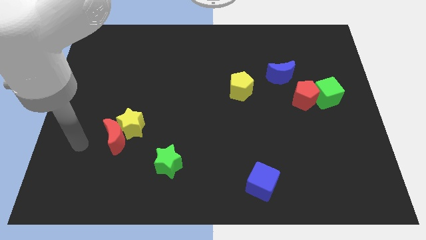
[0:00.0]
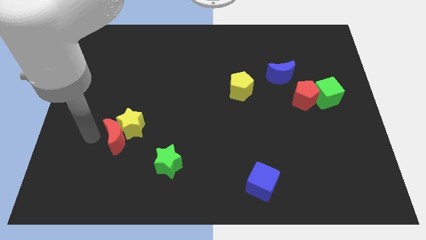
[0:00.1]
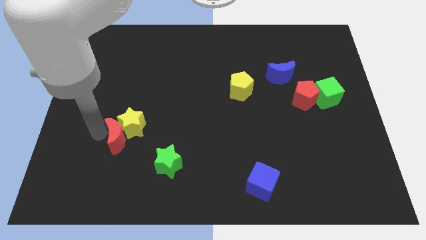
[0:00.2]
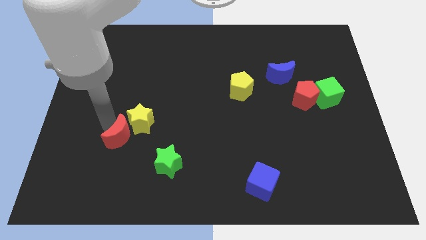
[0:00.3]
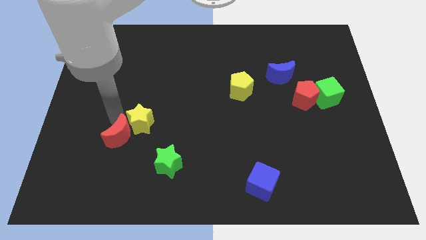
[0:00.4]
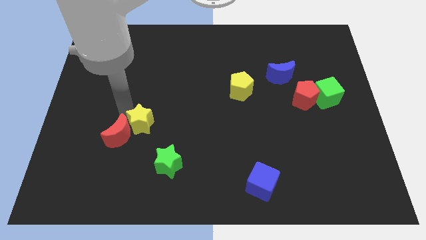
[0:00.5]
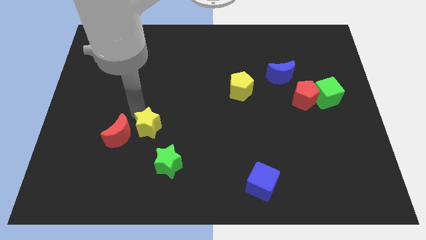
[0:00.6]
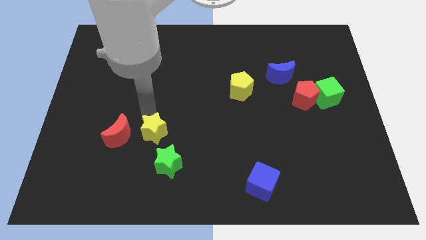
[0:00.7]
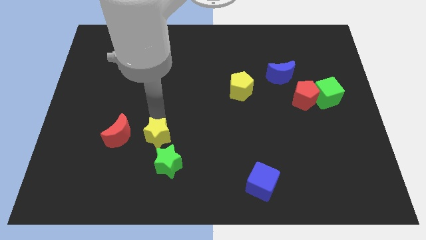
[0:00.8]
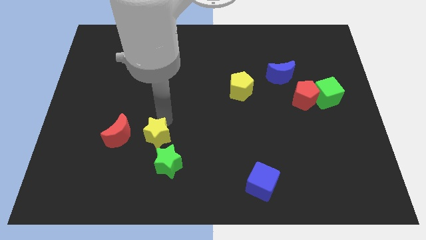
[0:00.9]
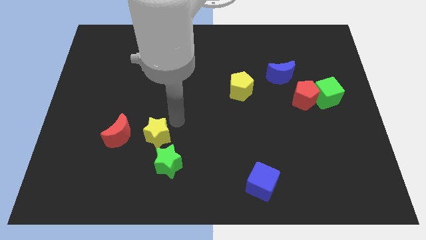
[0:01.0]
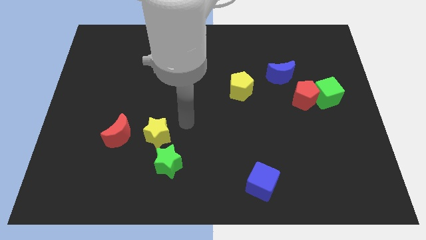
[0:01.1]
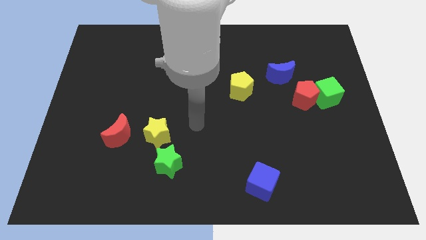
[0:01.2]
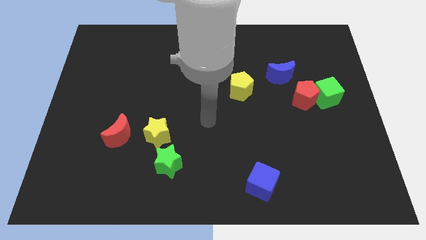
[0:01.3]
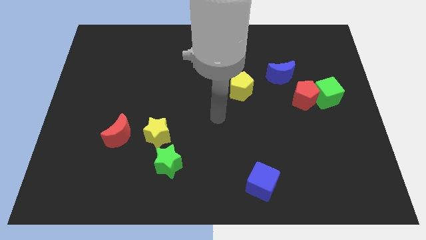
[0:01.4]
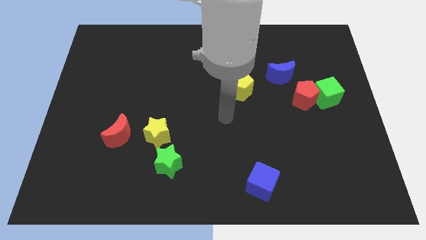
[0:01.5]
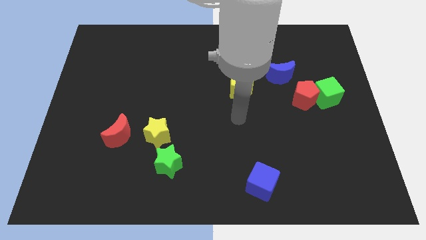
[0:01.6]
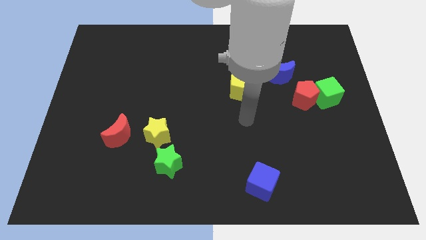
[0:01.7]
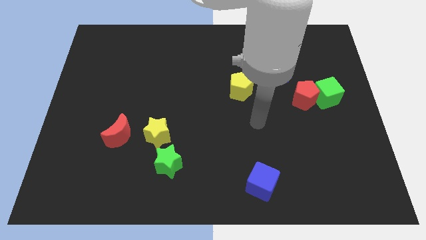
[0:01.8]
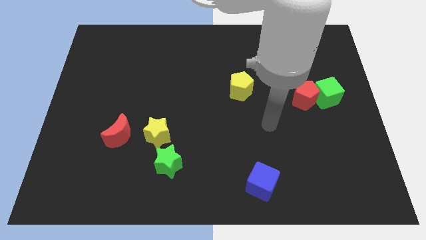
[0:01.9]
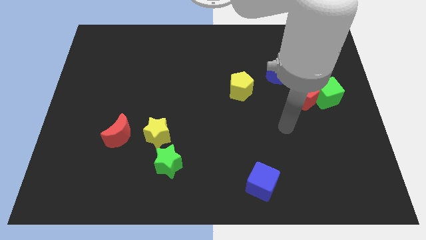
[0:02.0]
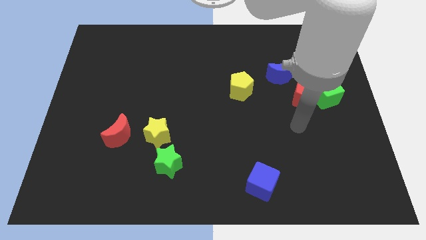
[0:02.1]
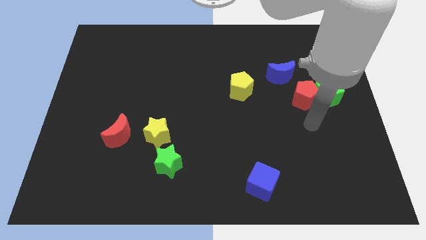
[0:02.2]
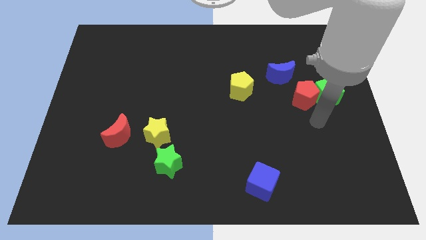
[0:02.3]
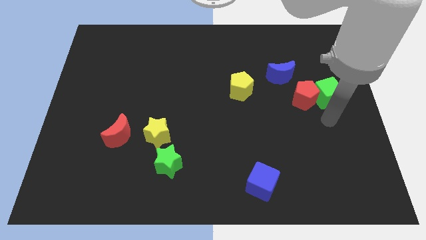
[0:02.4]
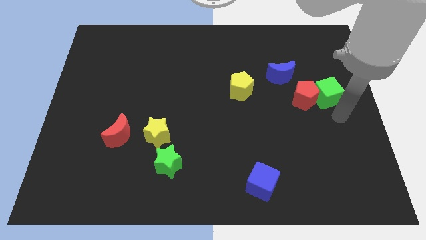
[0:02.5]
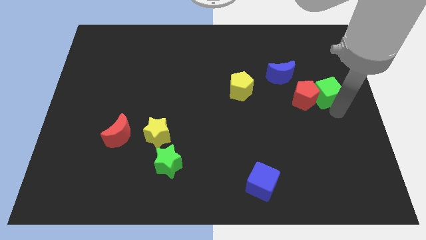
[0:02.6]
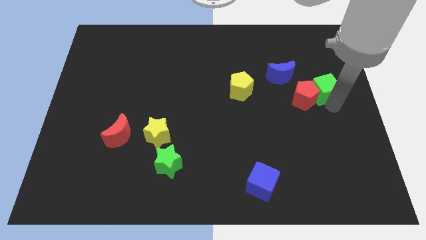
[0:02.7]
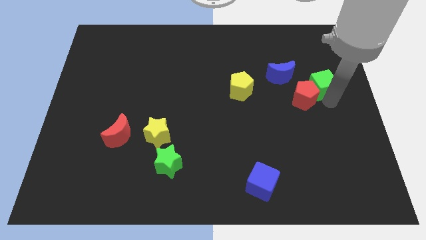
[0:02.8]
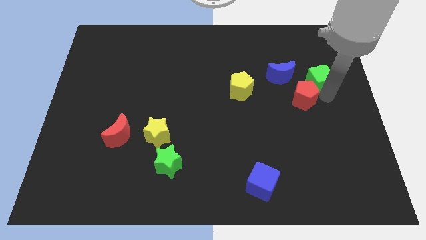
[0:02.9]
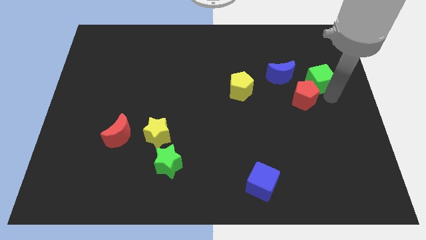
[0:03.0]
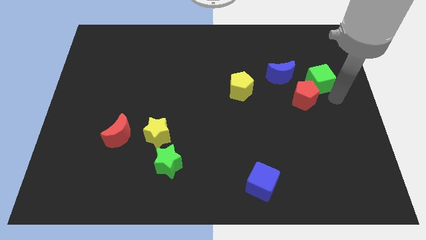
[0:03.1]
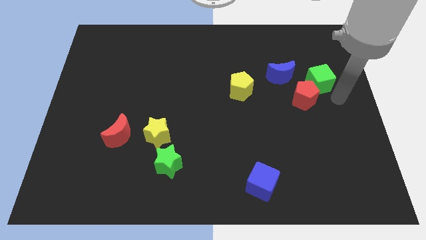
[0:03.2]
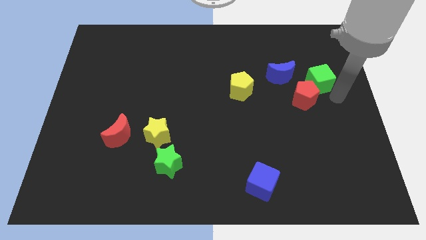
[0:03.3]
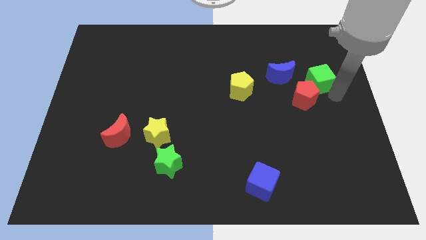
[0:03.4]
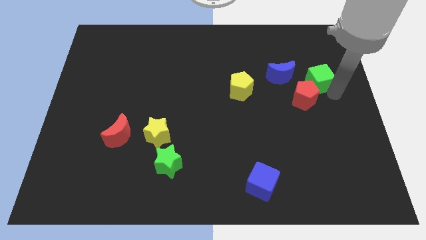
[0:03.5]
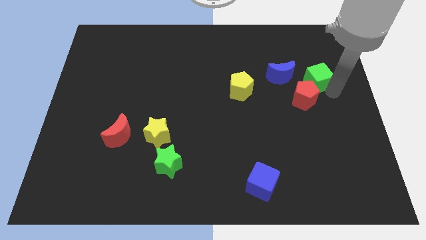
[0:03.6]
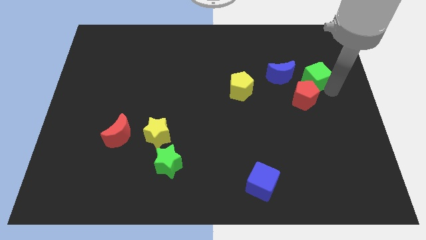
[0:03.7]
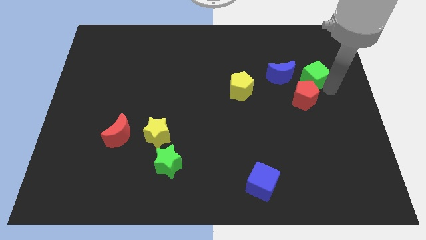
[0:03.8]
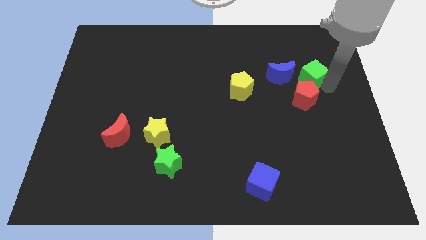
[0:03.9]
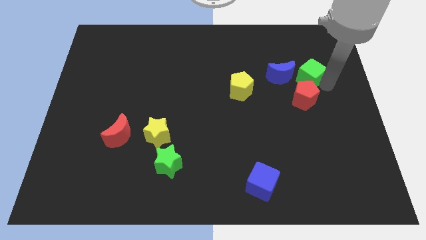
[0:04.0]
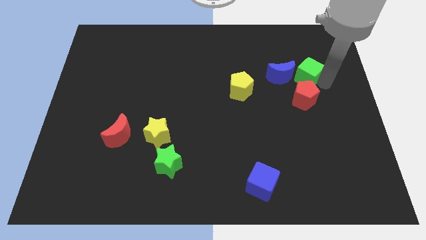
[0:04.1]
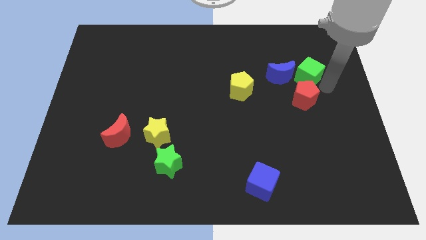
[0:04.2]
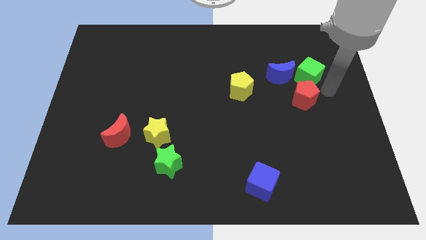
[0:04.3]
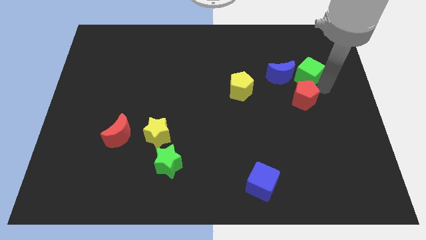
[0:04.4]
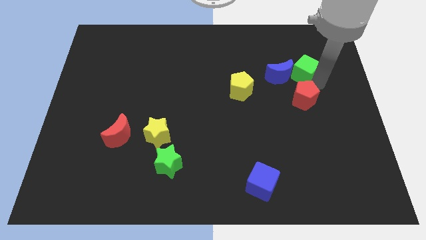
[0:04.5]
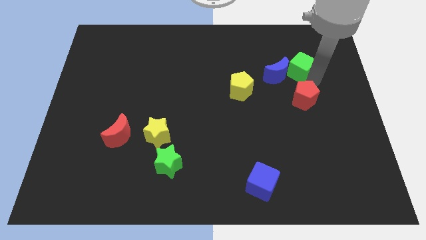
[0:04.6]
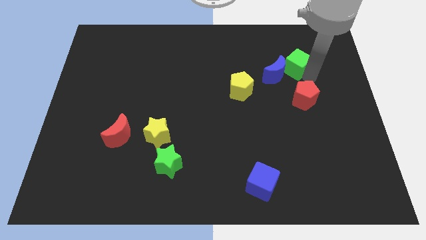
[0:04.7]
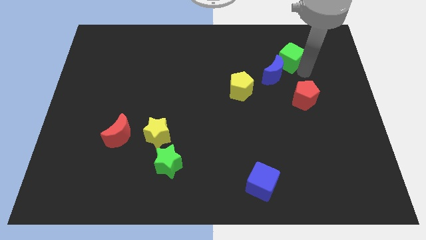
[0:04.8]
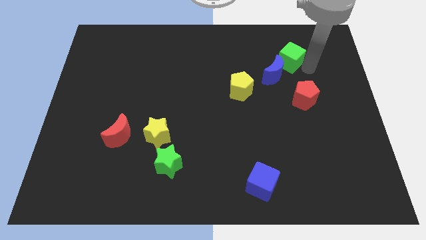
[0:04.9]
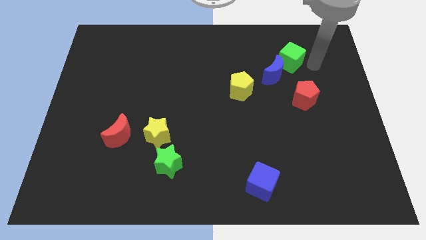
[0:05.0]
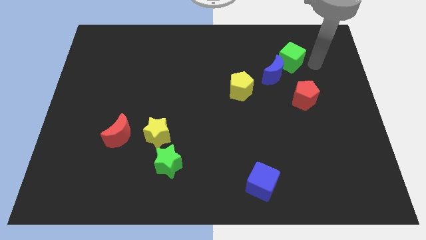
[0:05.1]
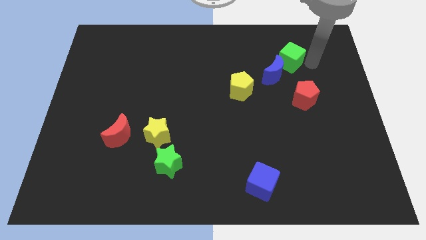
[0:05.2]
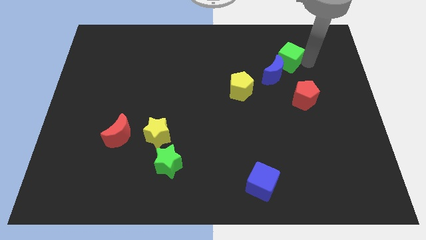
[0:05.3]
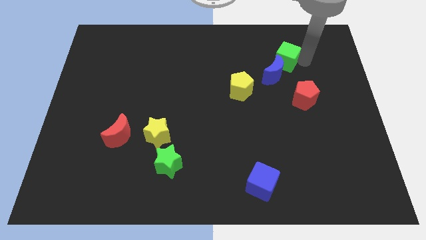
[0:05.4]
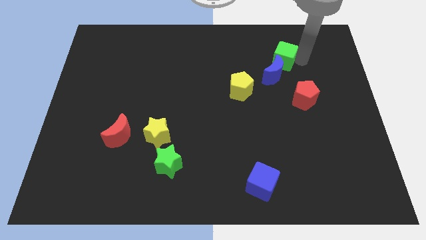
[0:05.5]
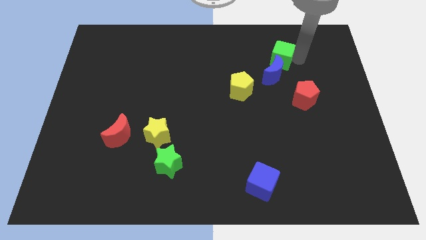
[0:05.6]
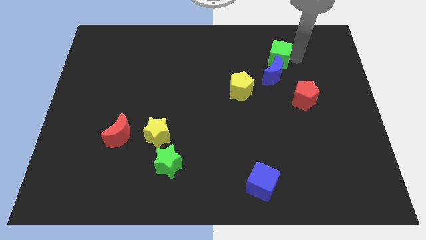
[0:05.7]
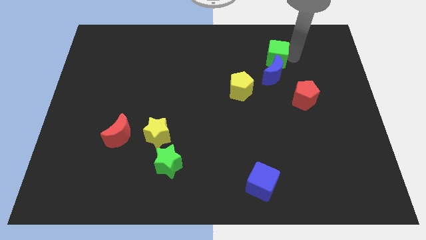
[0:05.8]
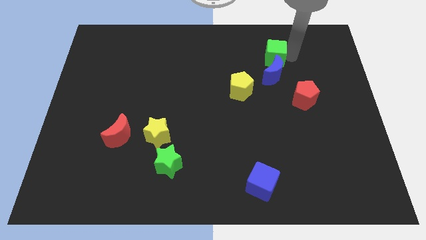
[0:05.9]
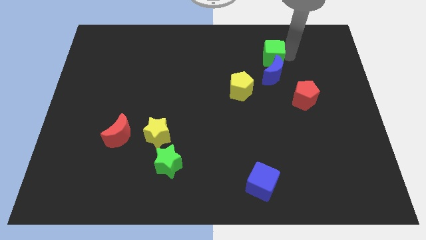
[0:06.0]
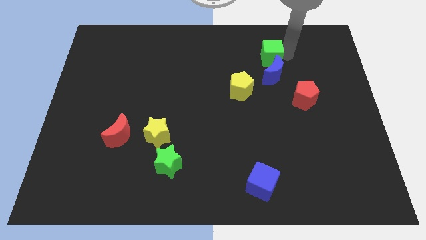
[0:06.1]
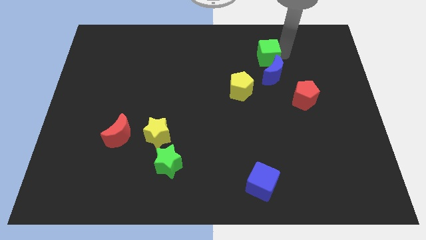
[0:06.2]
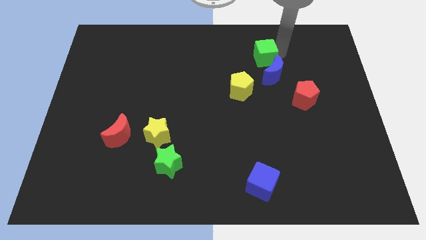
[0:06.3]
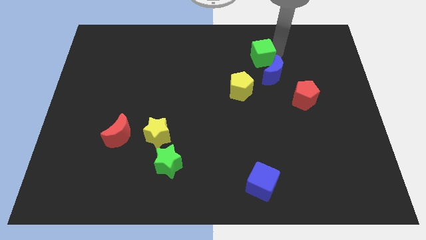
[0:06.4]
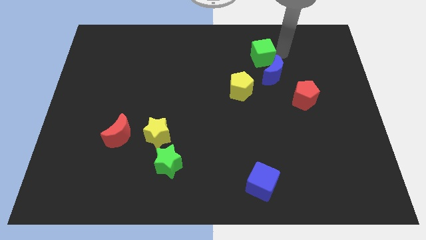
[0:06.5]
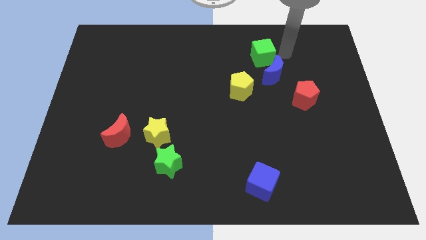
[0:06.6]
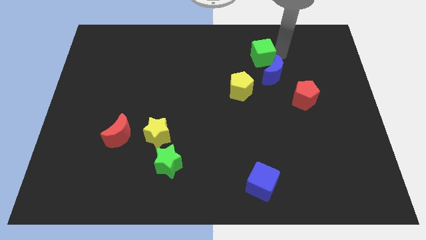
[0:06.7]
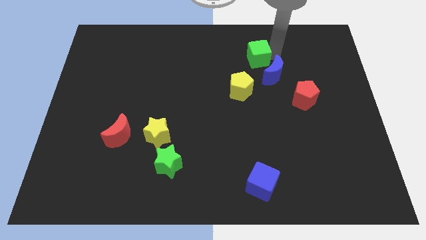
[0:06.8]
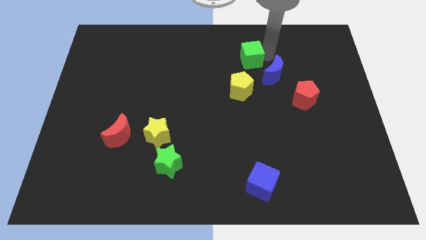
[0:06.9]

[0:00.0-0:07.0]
push the green cube to the top of the yellow pentagon
